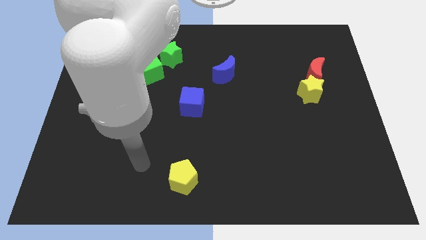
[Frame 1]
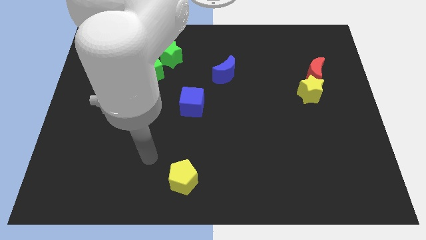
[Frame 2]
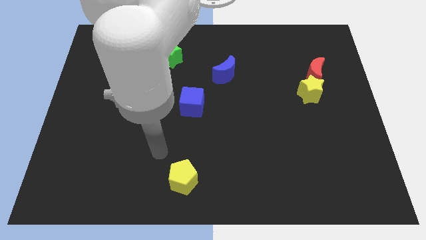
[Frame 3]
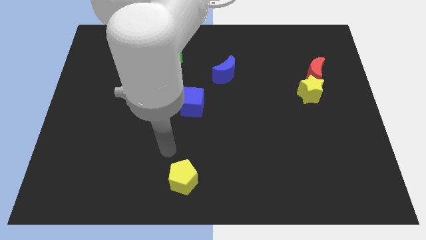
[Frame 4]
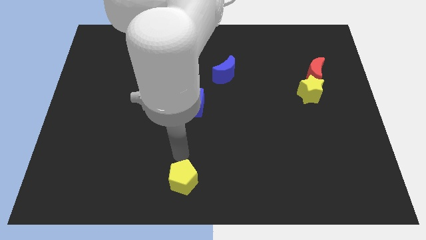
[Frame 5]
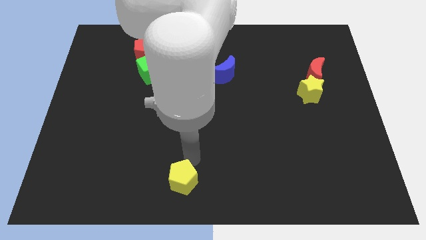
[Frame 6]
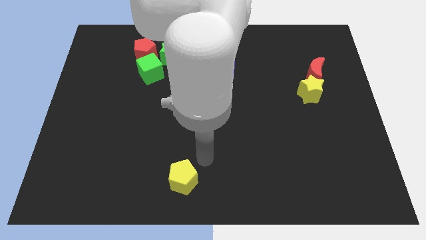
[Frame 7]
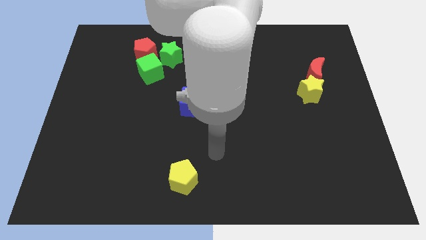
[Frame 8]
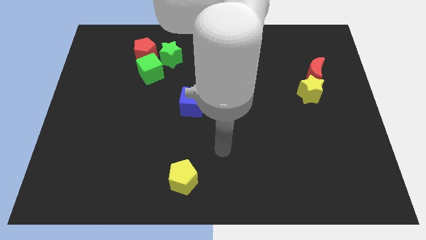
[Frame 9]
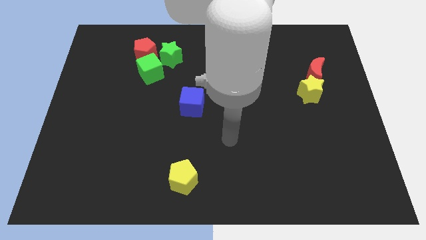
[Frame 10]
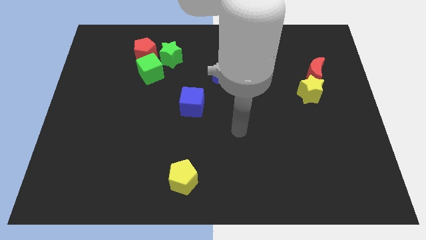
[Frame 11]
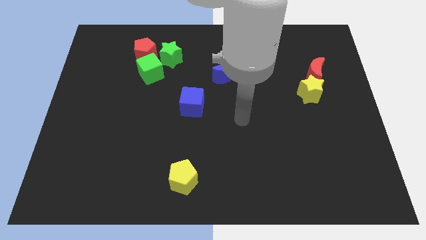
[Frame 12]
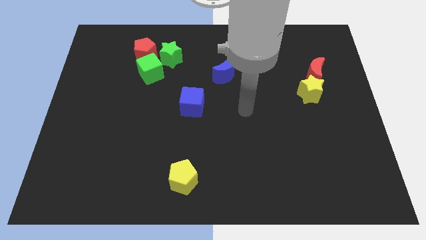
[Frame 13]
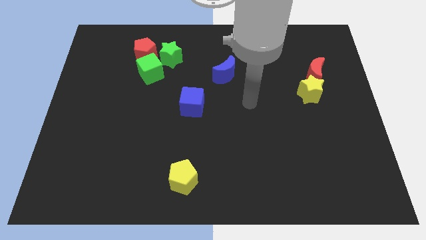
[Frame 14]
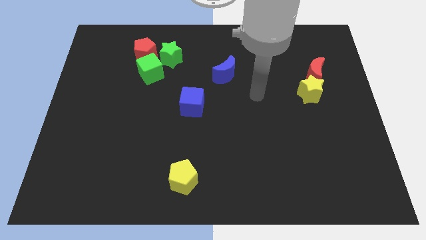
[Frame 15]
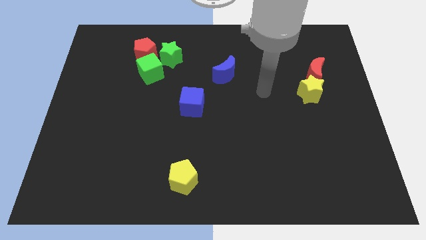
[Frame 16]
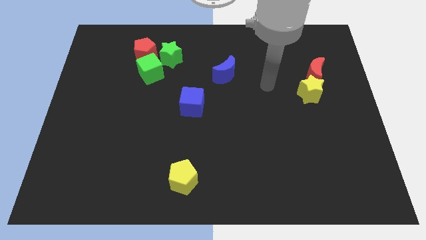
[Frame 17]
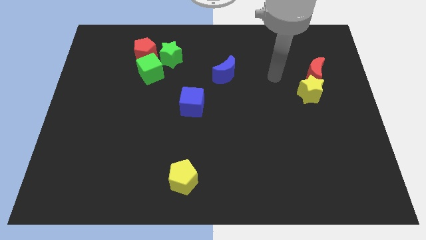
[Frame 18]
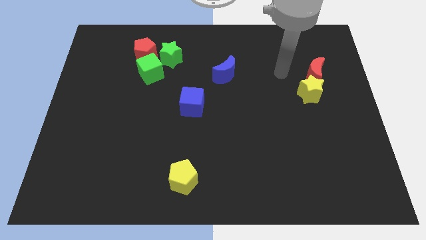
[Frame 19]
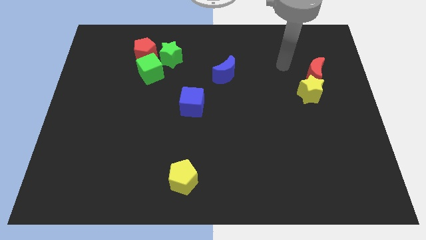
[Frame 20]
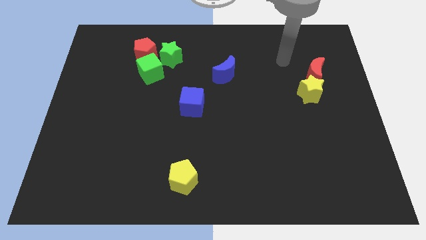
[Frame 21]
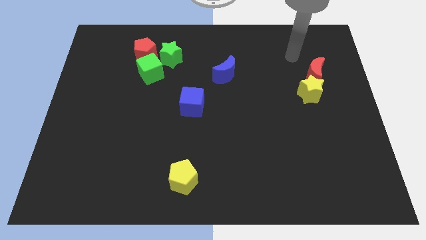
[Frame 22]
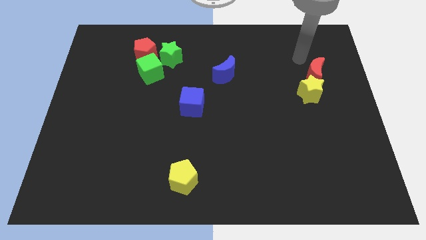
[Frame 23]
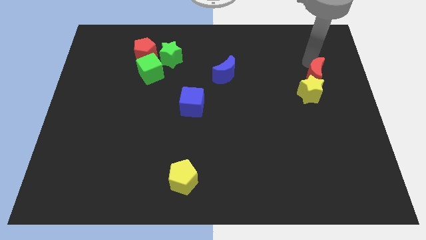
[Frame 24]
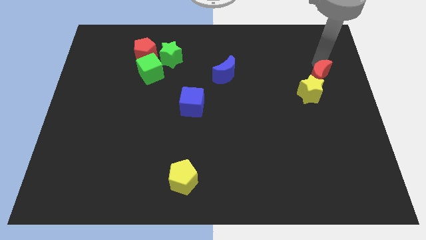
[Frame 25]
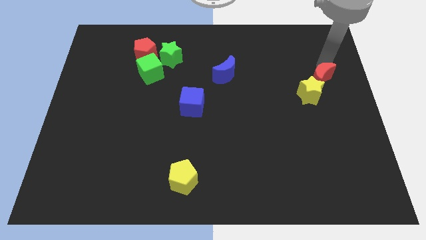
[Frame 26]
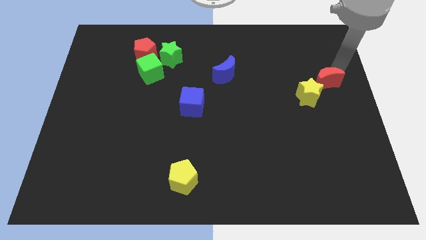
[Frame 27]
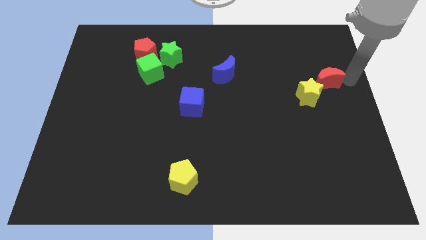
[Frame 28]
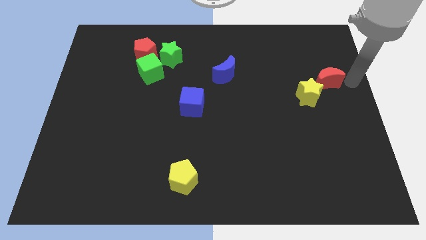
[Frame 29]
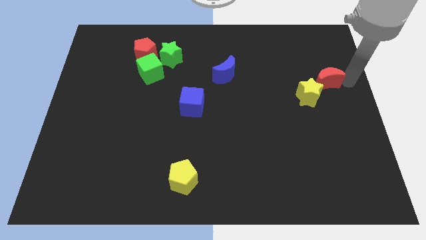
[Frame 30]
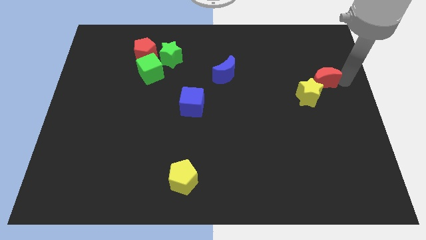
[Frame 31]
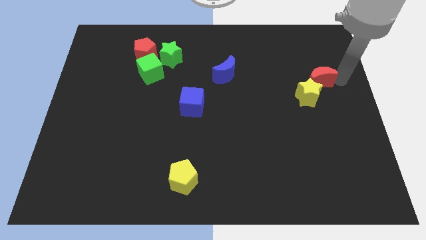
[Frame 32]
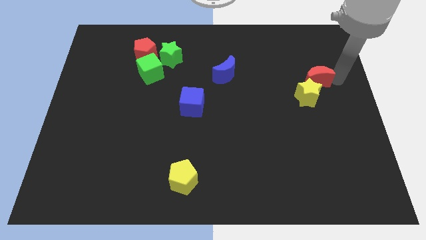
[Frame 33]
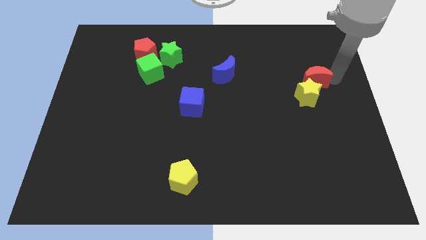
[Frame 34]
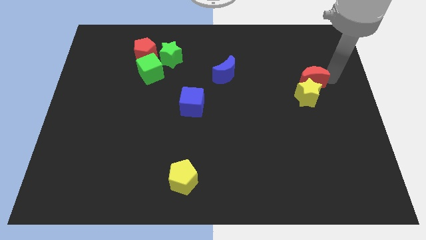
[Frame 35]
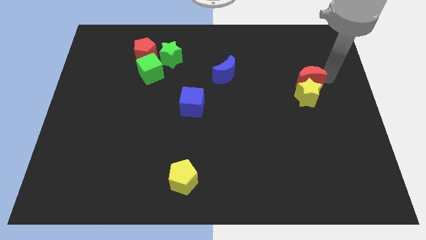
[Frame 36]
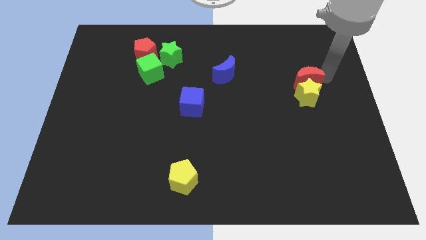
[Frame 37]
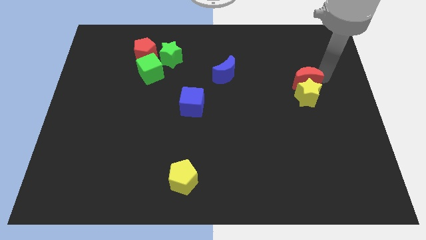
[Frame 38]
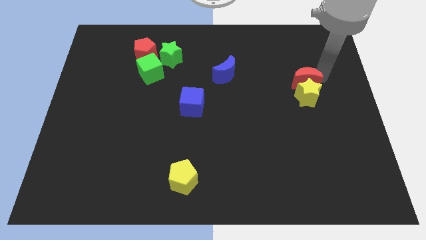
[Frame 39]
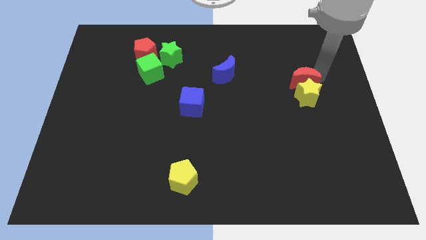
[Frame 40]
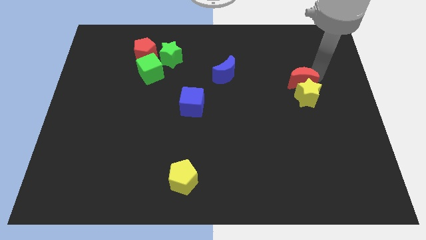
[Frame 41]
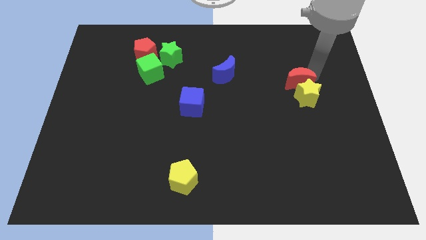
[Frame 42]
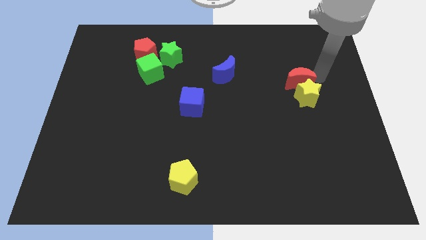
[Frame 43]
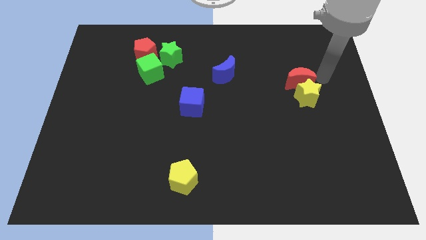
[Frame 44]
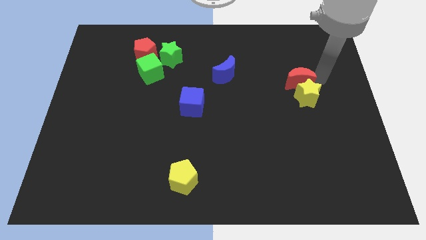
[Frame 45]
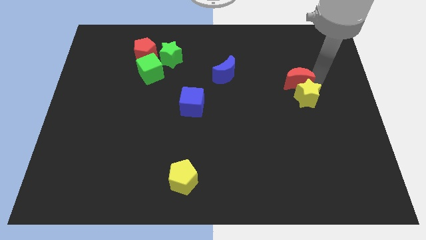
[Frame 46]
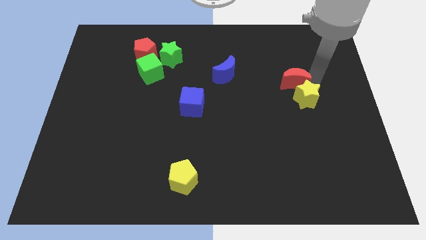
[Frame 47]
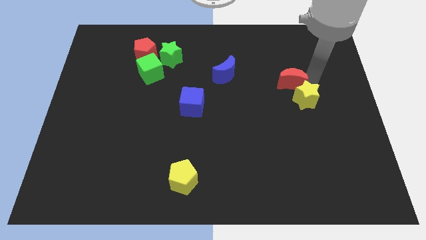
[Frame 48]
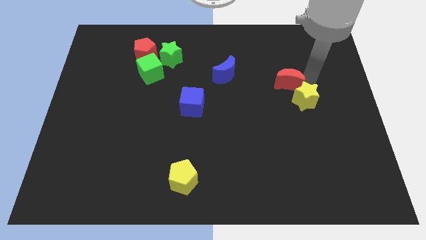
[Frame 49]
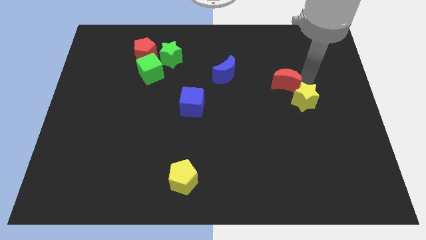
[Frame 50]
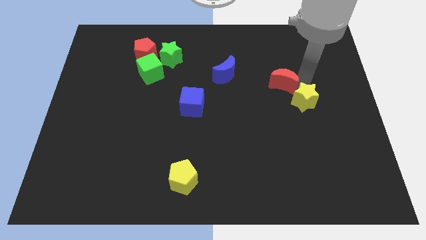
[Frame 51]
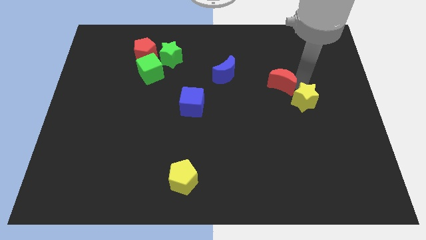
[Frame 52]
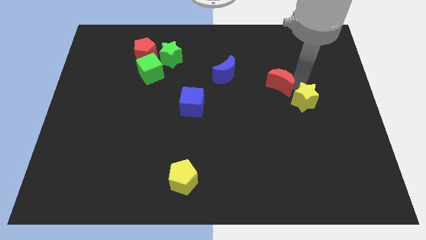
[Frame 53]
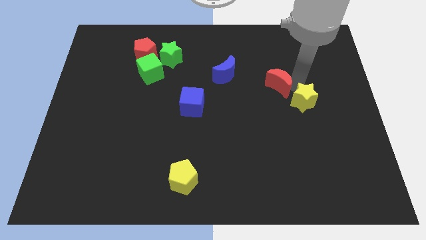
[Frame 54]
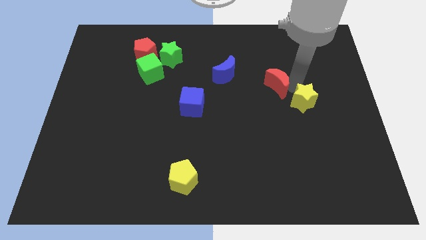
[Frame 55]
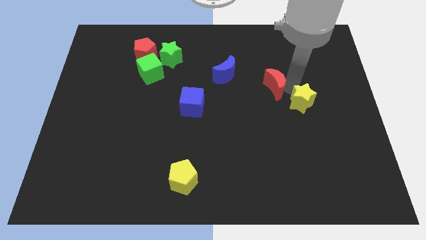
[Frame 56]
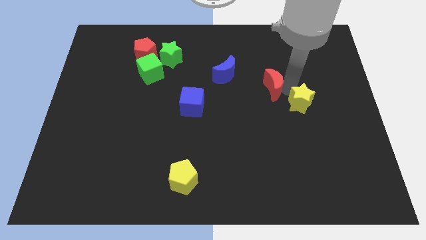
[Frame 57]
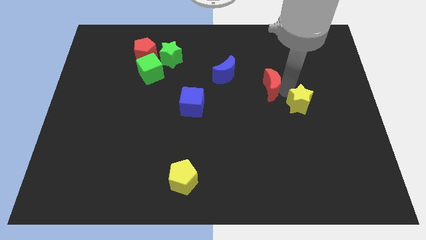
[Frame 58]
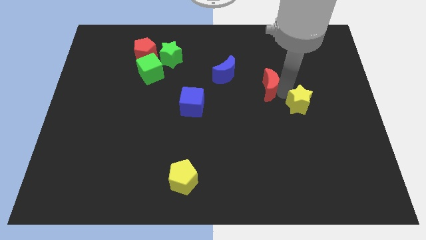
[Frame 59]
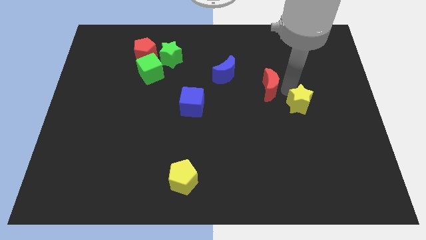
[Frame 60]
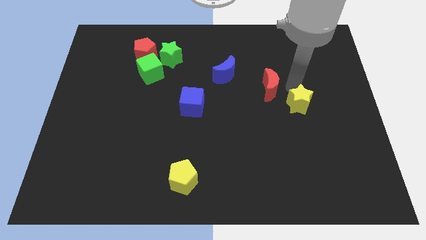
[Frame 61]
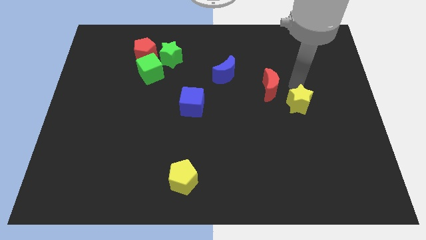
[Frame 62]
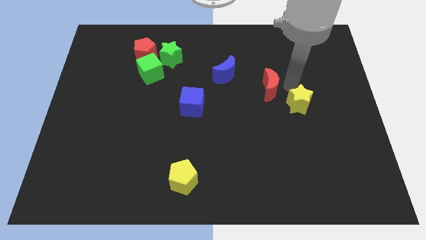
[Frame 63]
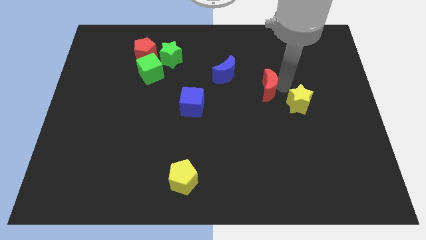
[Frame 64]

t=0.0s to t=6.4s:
slide the red moon to the bottom right of the blue moon

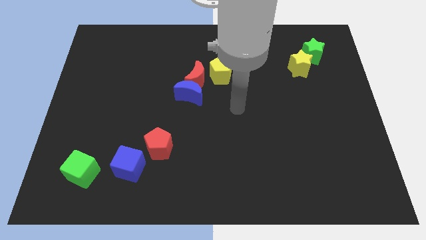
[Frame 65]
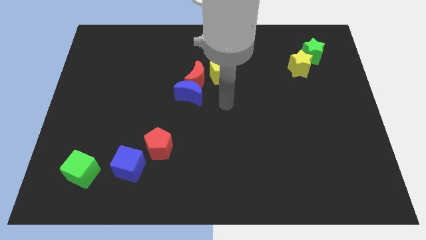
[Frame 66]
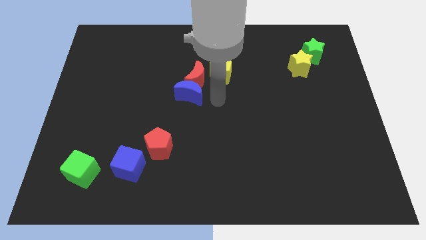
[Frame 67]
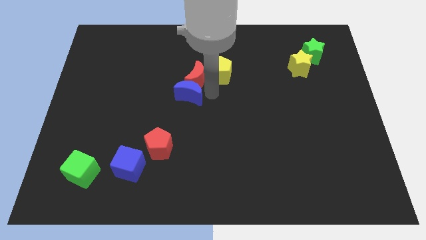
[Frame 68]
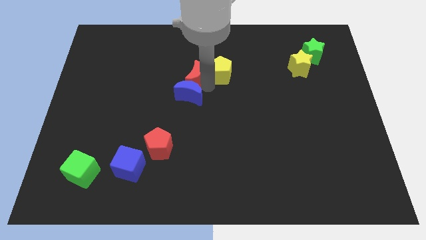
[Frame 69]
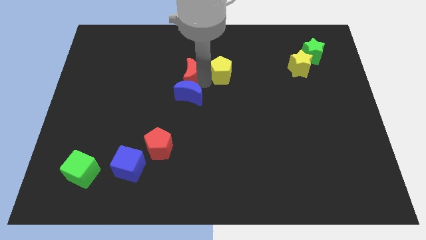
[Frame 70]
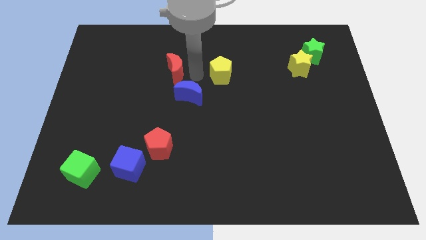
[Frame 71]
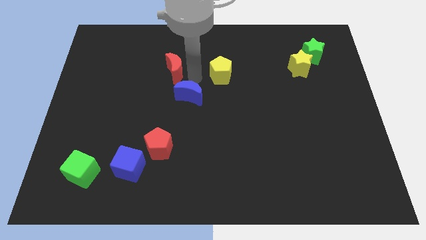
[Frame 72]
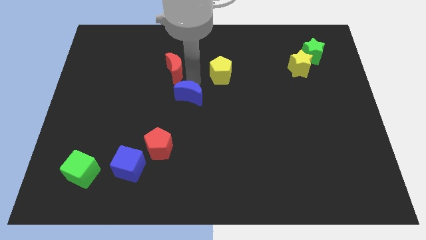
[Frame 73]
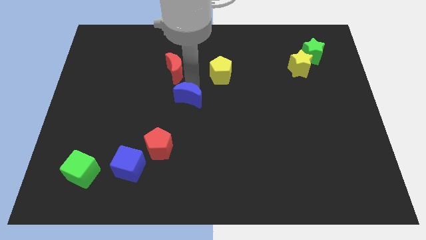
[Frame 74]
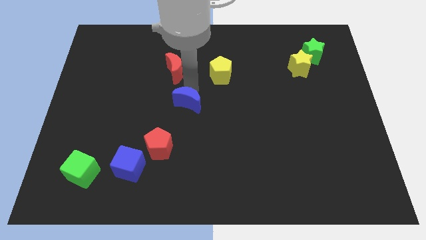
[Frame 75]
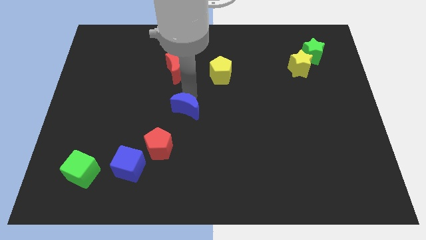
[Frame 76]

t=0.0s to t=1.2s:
move the blue moon diagonally up and to the right of the red pentagon
